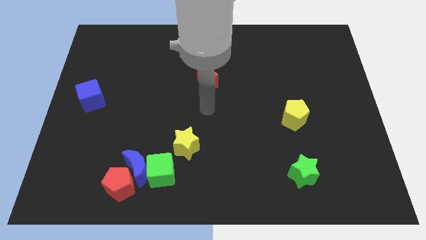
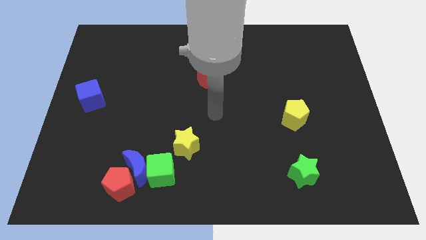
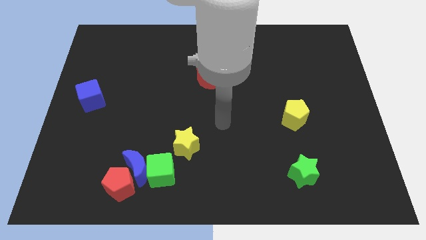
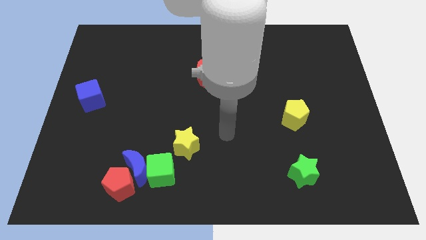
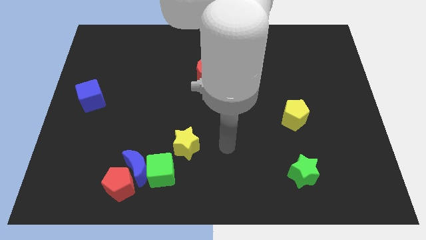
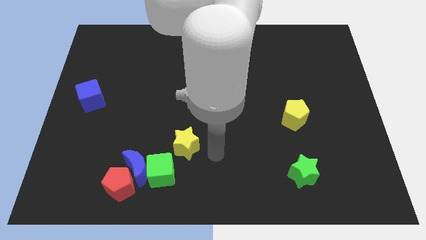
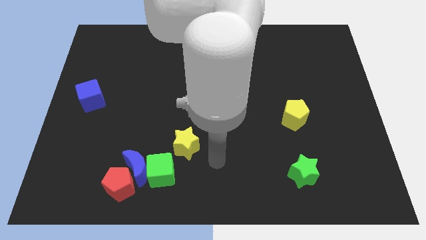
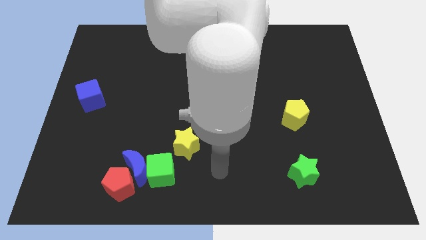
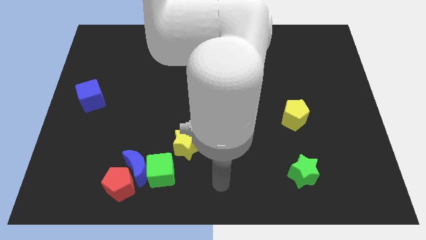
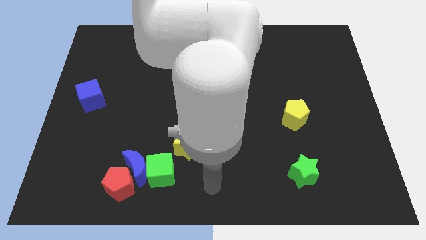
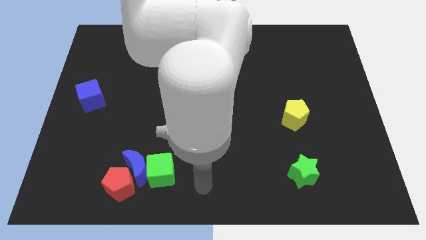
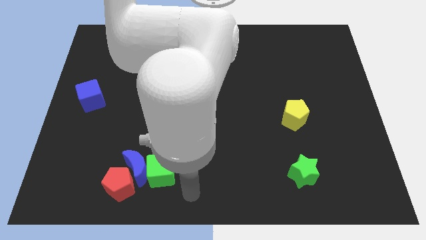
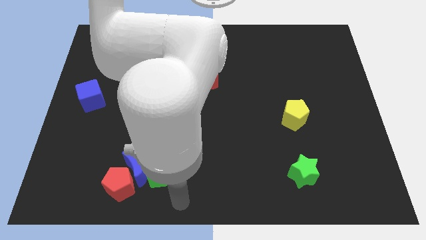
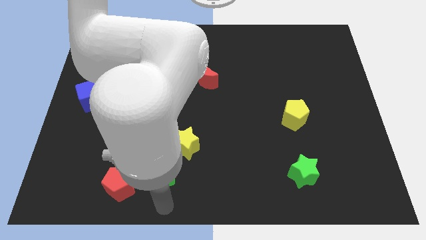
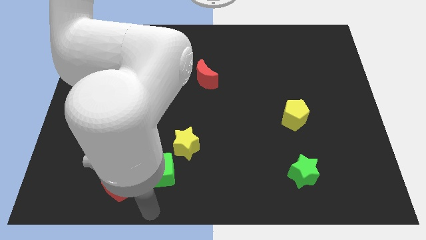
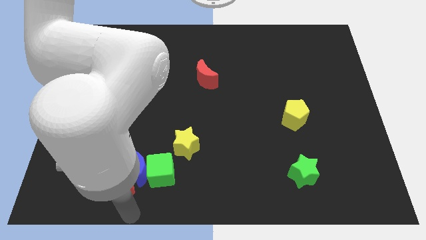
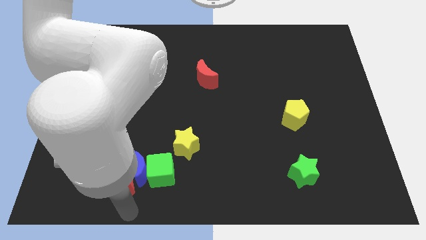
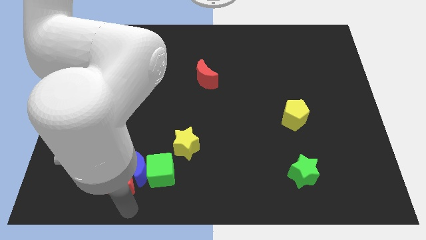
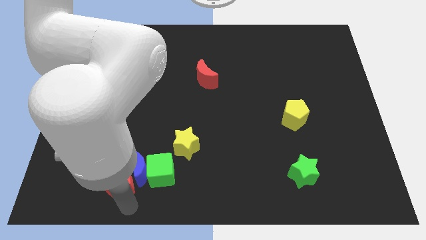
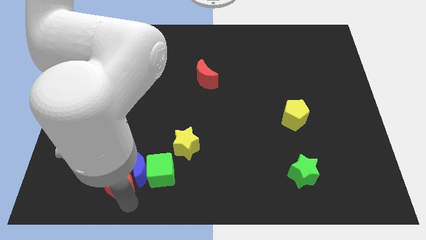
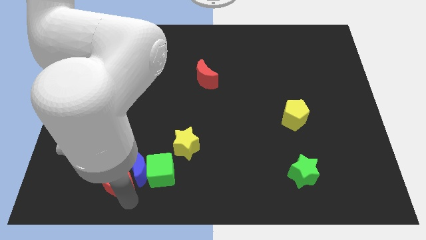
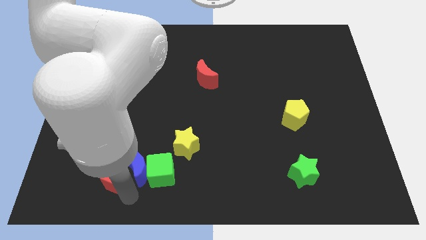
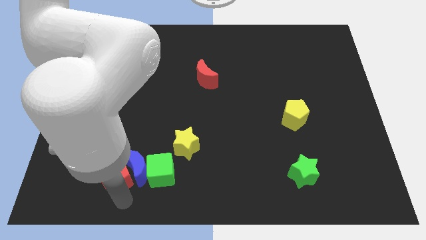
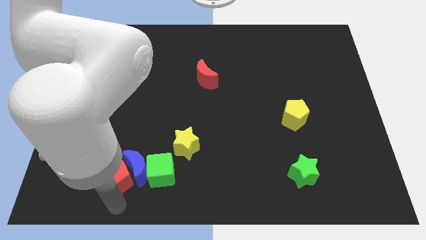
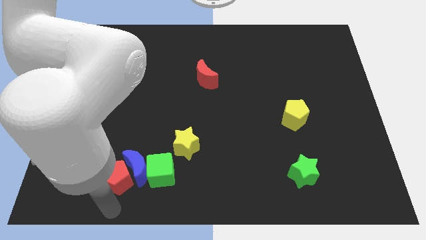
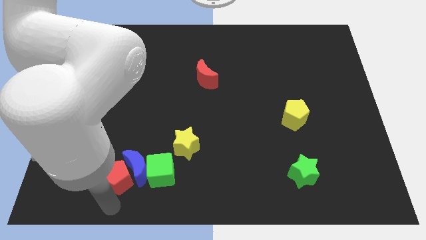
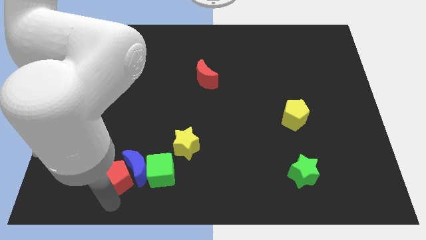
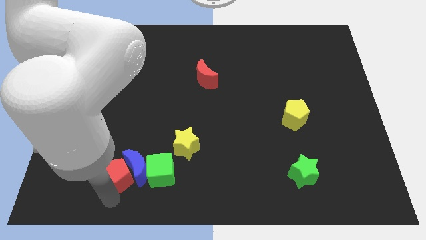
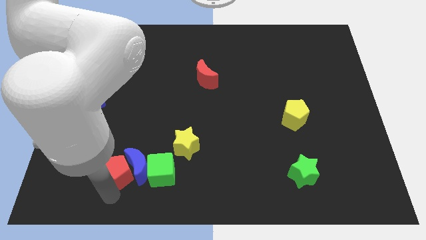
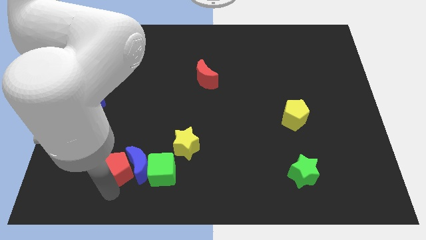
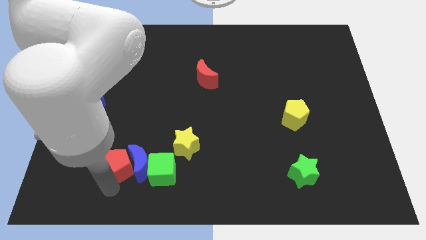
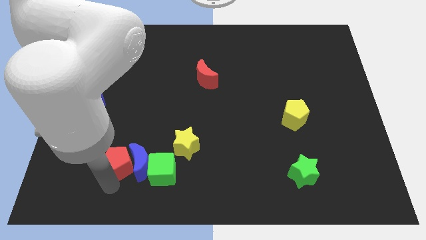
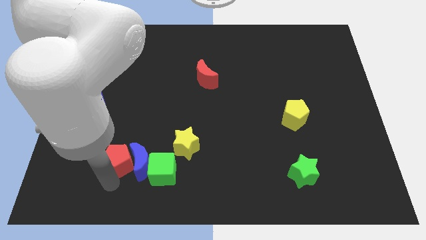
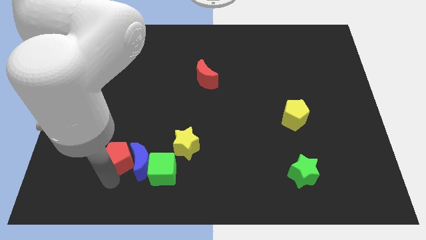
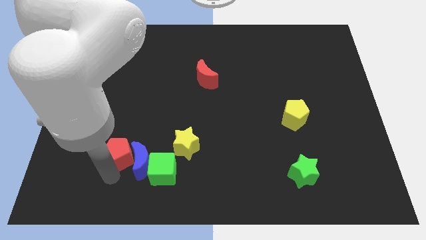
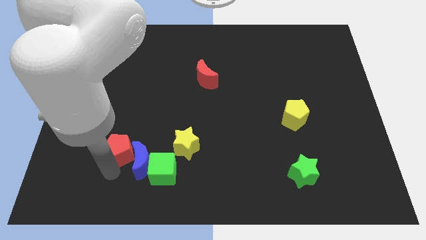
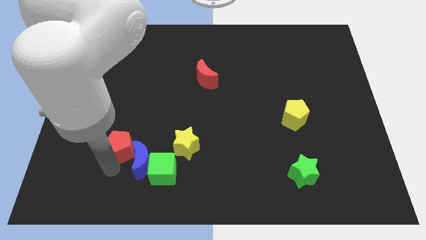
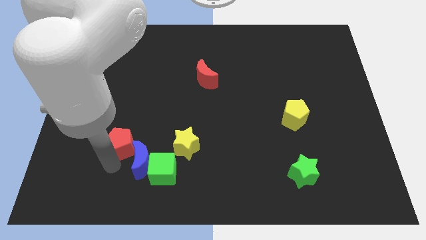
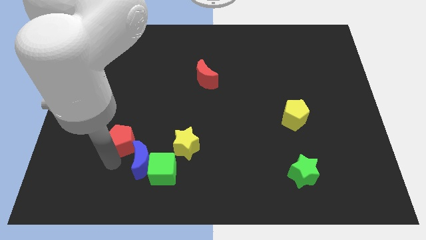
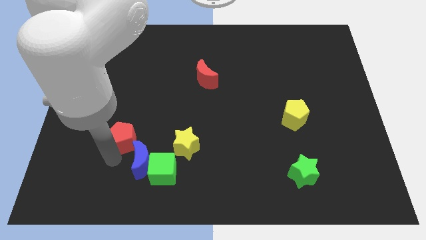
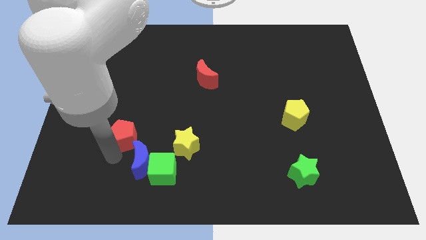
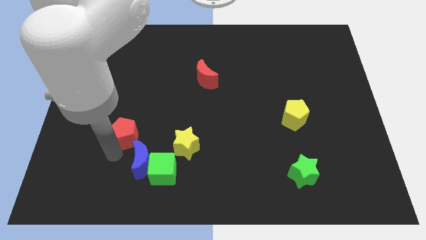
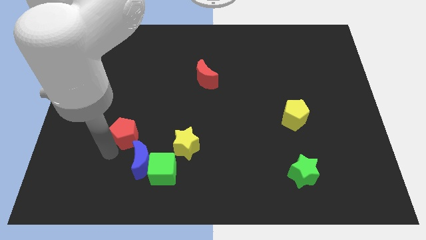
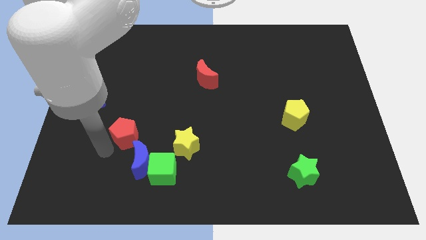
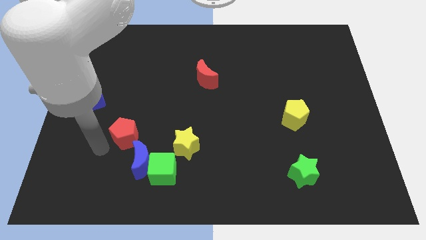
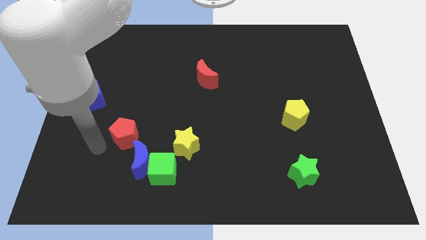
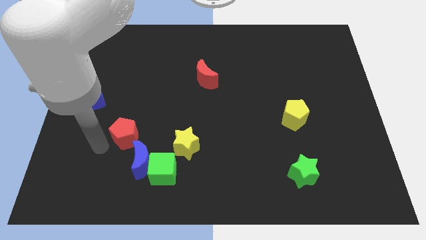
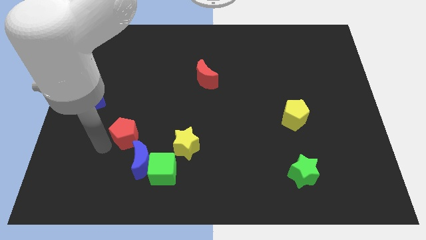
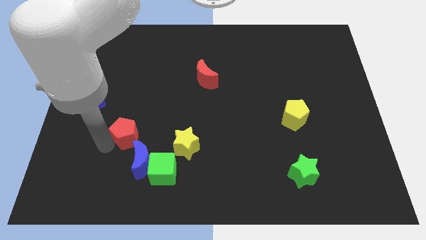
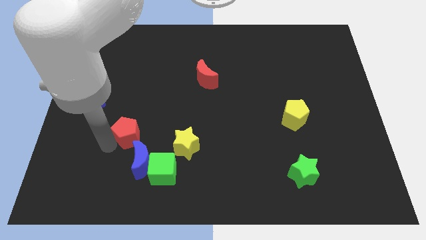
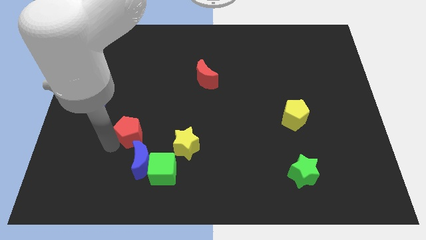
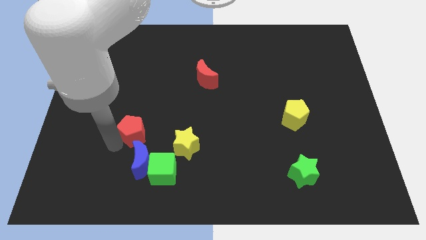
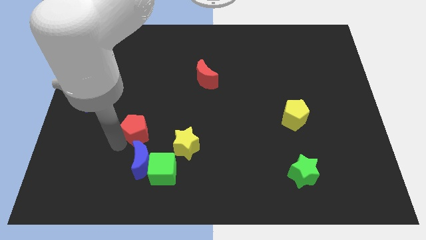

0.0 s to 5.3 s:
move the red pentagon a little bit diagonally up and to the right

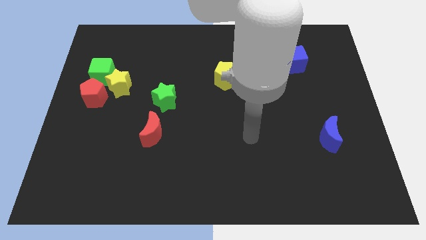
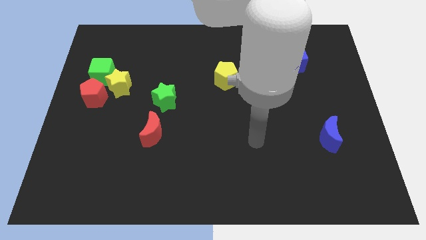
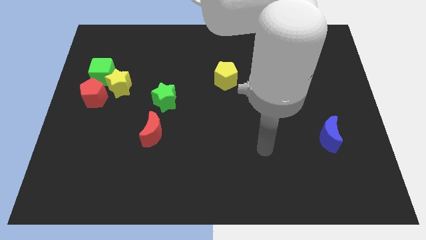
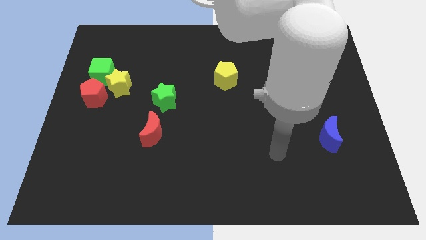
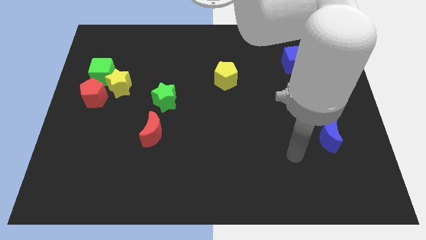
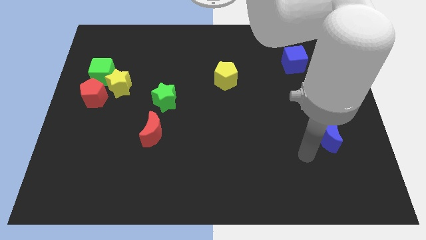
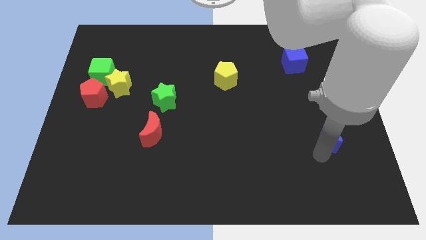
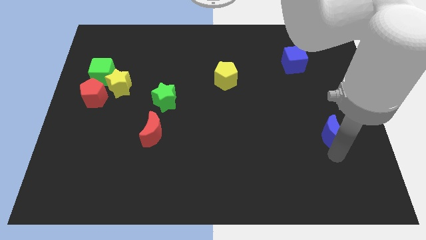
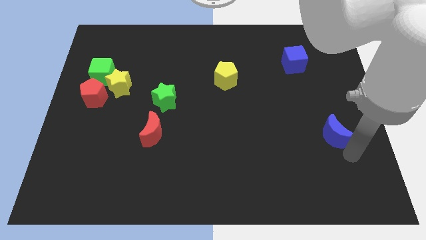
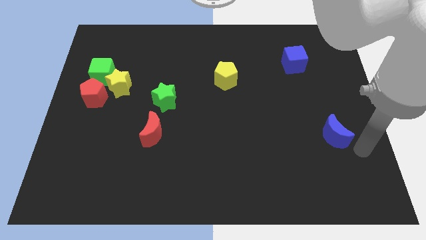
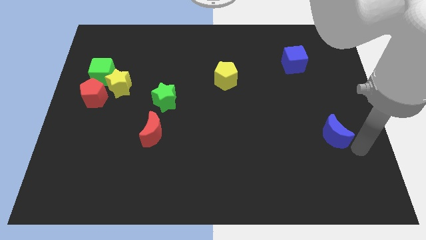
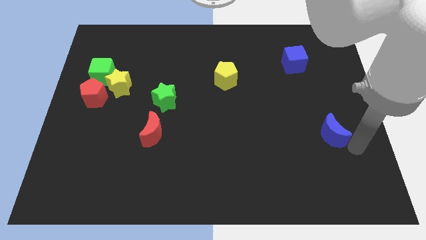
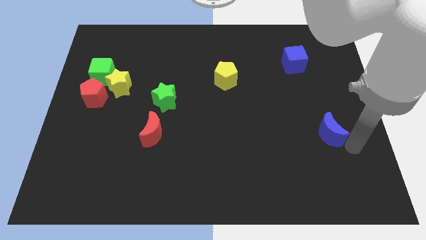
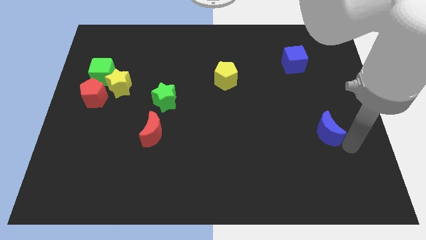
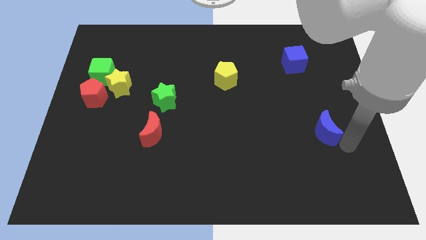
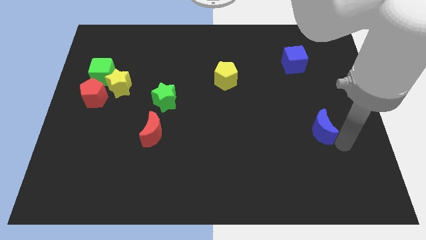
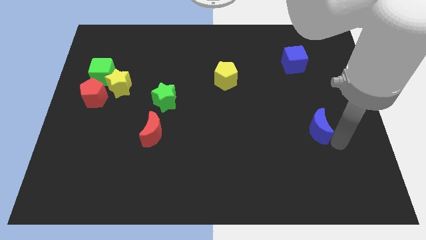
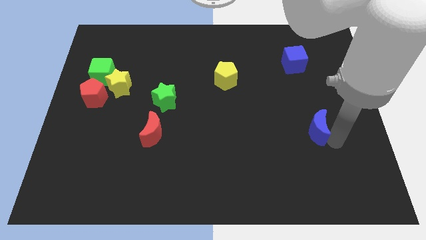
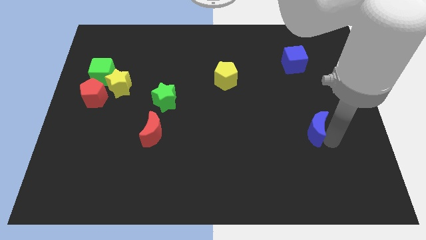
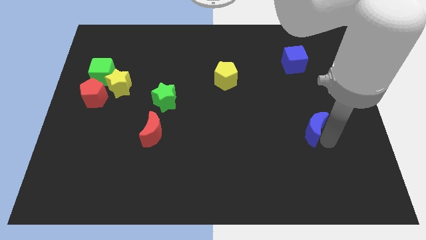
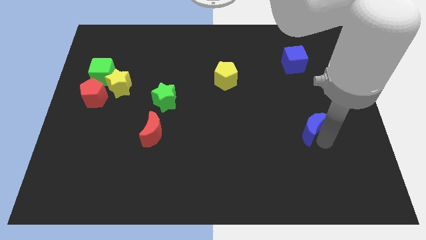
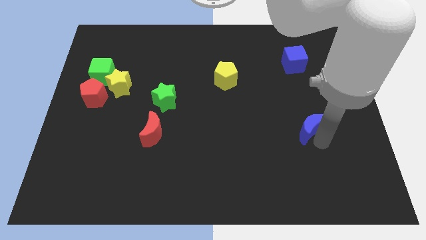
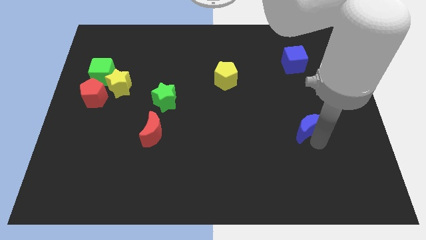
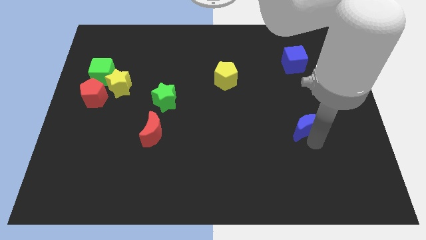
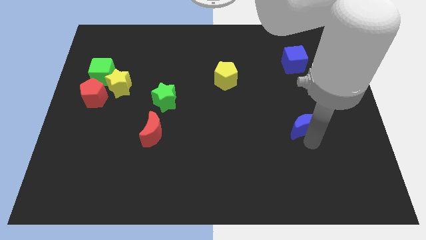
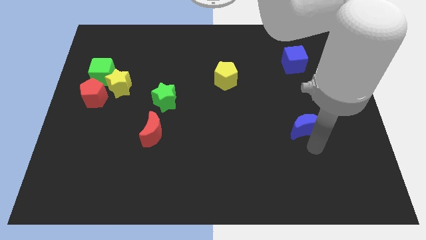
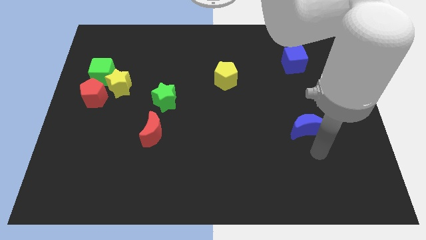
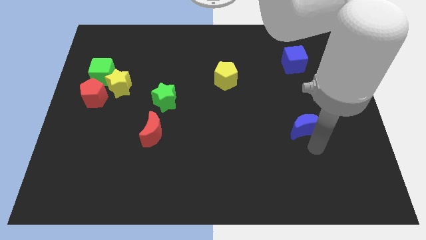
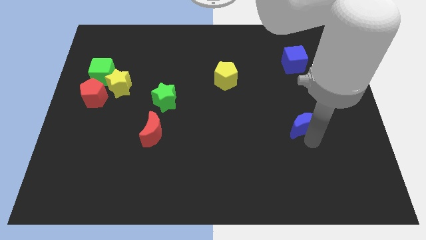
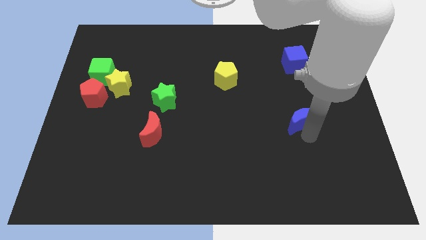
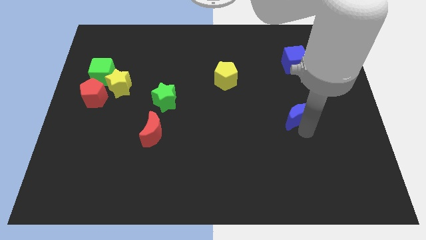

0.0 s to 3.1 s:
slightly slide the blue moon upwards and then to the left

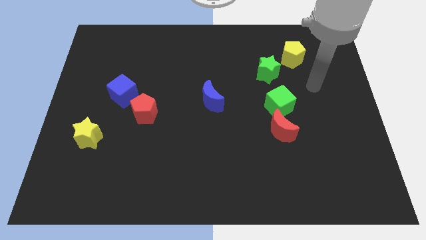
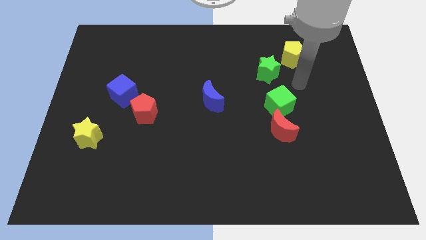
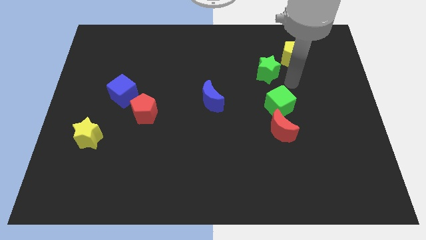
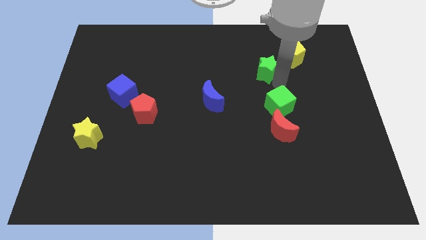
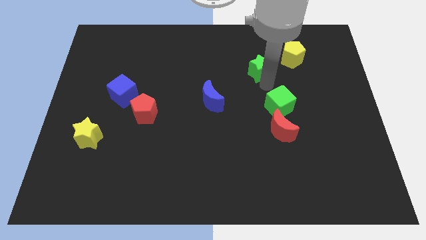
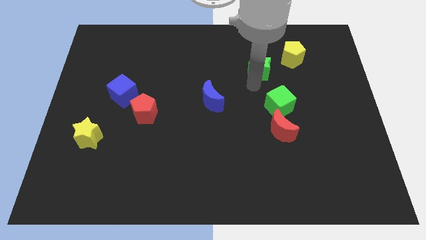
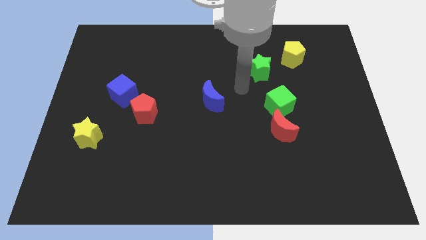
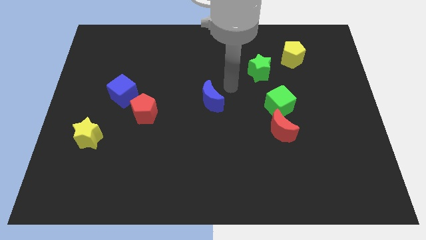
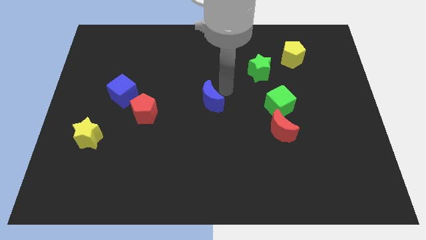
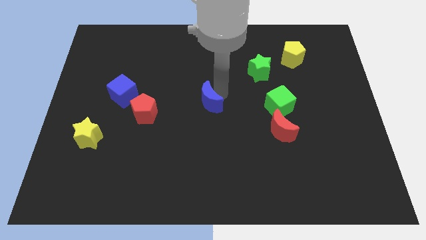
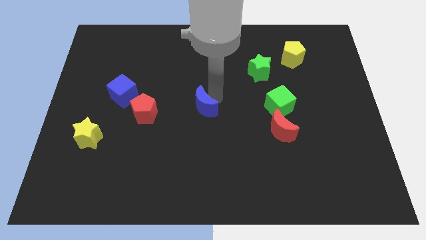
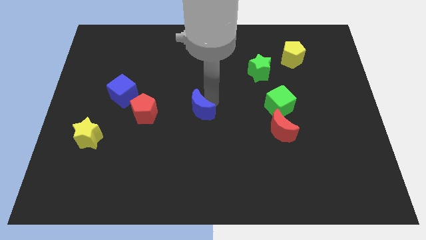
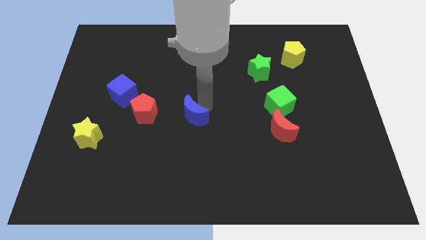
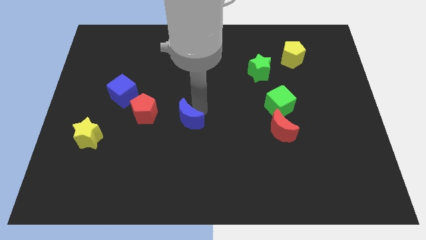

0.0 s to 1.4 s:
push the blue moon slightly downwards and left diagonally
